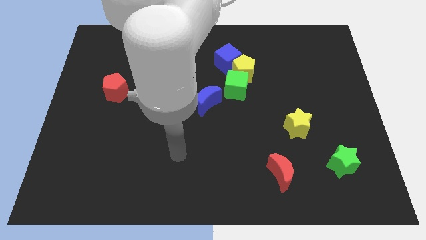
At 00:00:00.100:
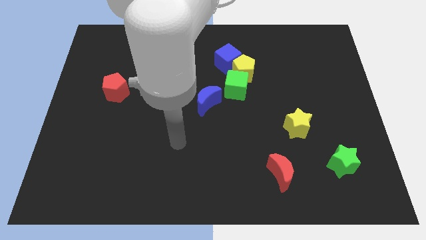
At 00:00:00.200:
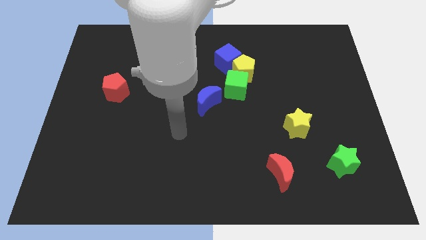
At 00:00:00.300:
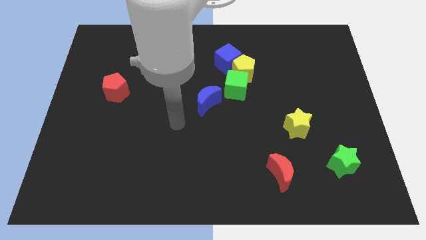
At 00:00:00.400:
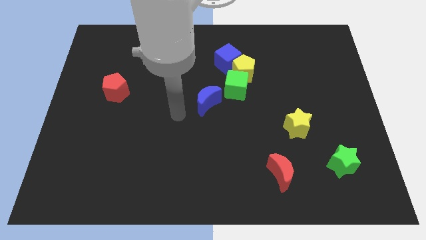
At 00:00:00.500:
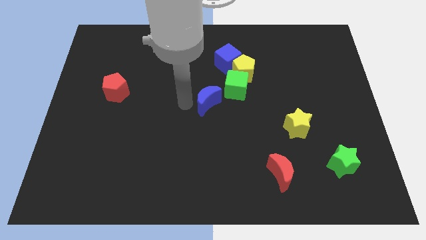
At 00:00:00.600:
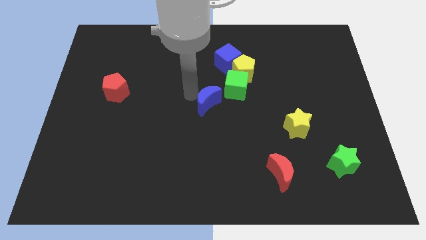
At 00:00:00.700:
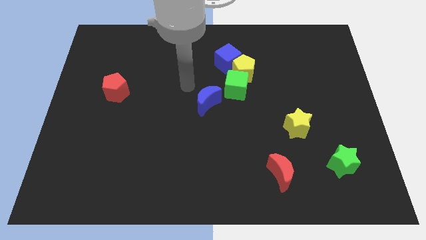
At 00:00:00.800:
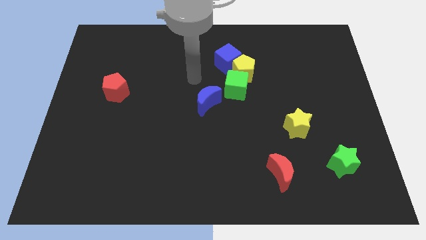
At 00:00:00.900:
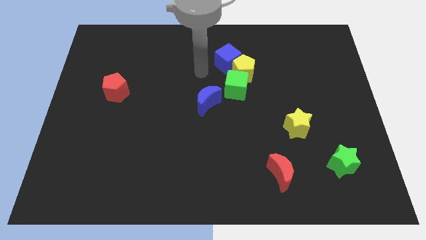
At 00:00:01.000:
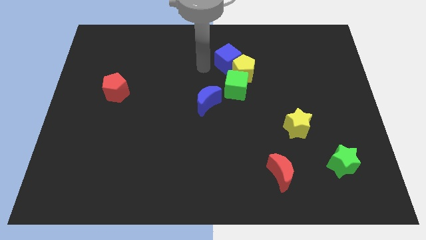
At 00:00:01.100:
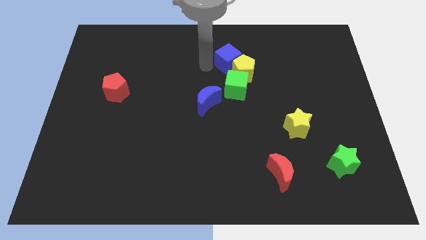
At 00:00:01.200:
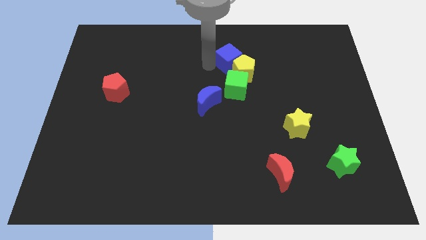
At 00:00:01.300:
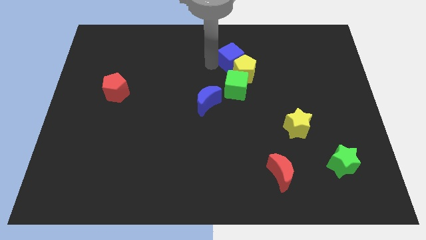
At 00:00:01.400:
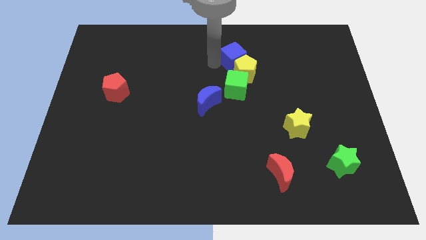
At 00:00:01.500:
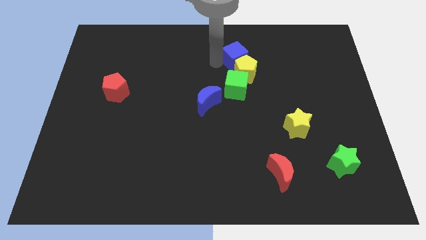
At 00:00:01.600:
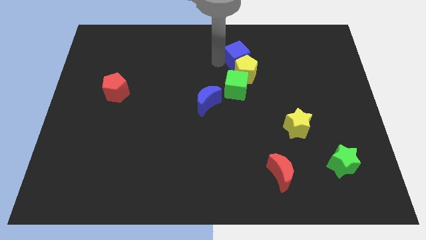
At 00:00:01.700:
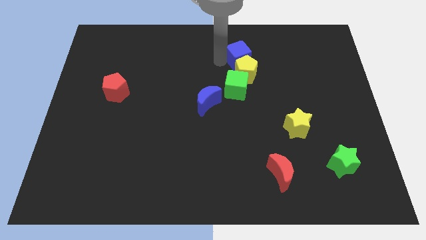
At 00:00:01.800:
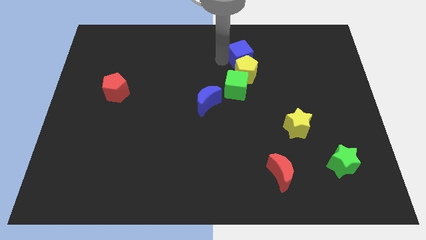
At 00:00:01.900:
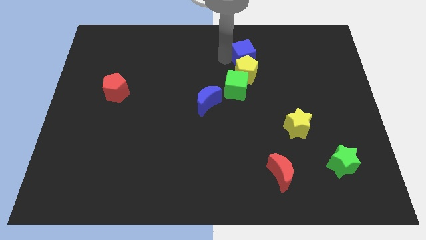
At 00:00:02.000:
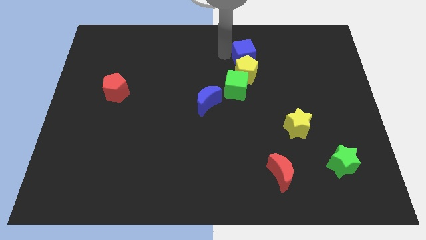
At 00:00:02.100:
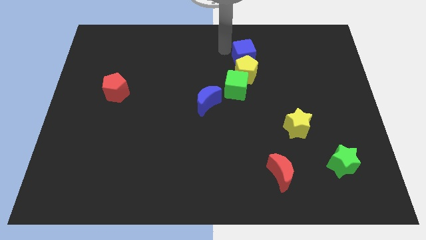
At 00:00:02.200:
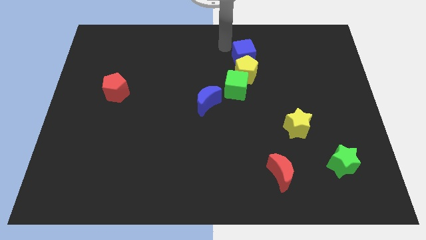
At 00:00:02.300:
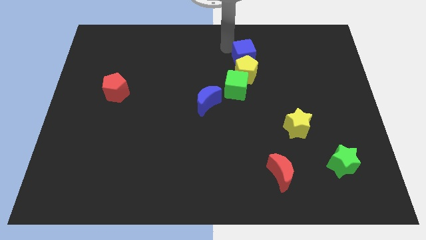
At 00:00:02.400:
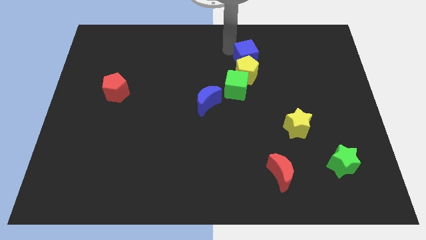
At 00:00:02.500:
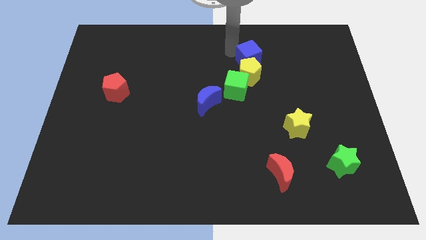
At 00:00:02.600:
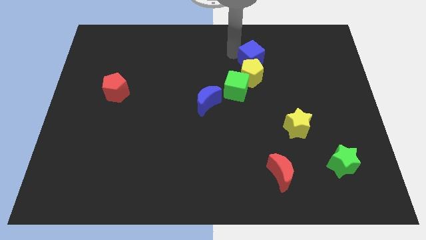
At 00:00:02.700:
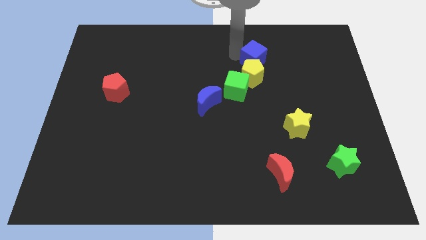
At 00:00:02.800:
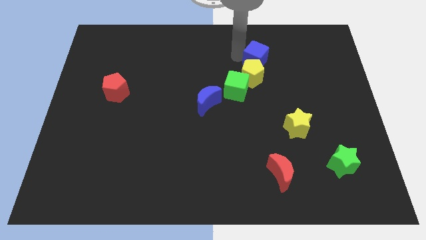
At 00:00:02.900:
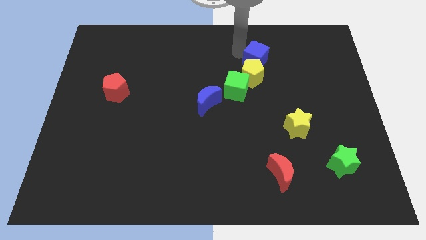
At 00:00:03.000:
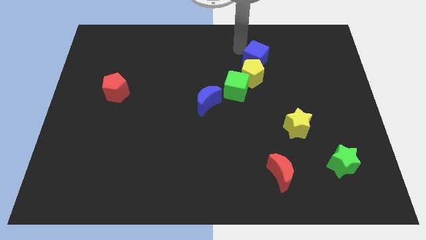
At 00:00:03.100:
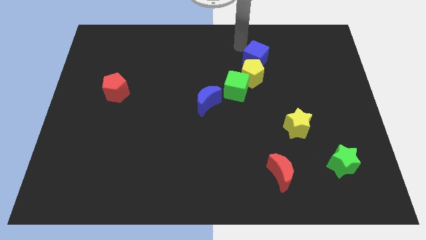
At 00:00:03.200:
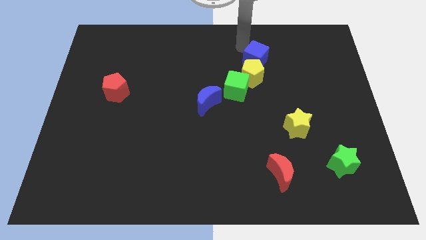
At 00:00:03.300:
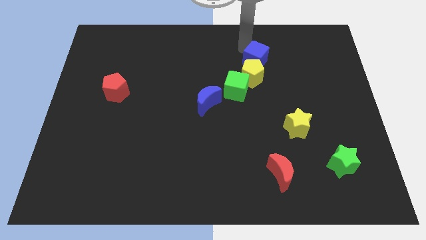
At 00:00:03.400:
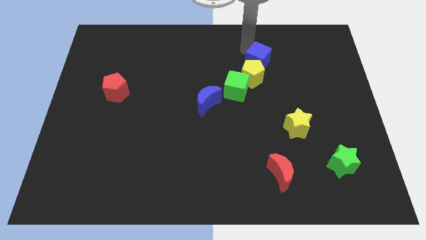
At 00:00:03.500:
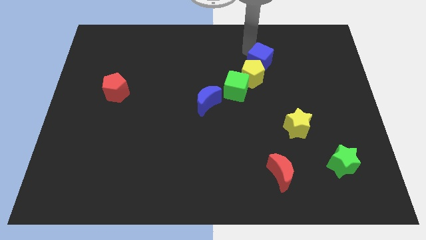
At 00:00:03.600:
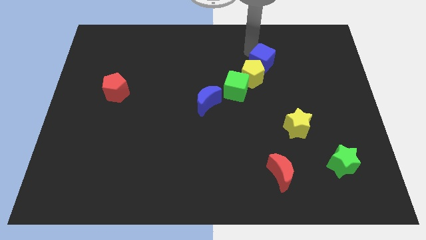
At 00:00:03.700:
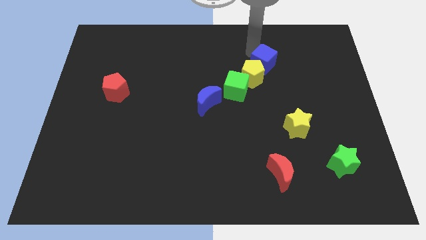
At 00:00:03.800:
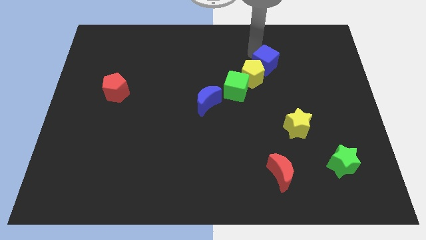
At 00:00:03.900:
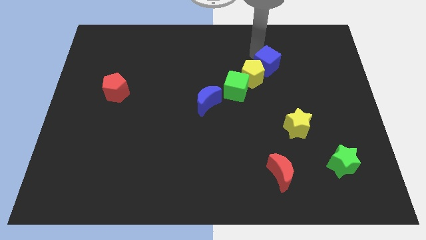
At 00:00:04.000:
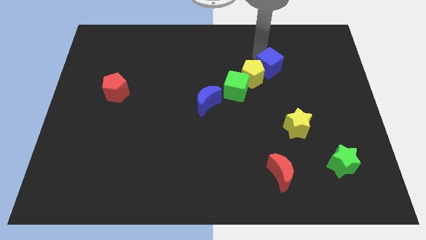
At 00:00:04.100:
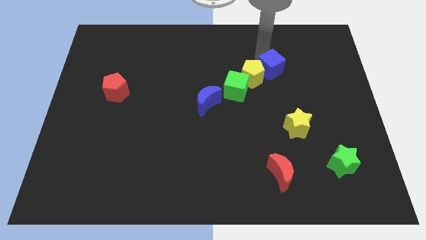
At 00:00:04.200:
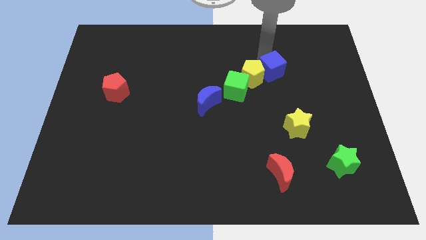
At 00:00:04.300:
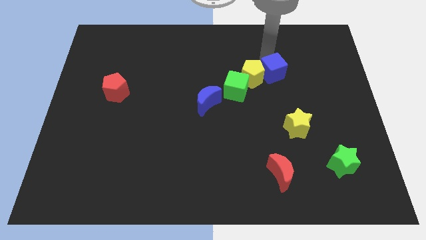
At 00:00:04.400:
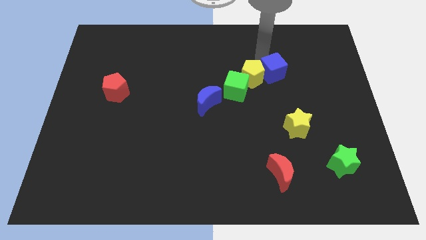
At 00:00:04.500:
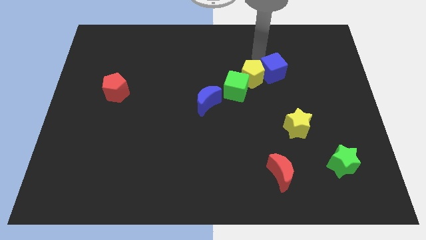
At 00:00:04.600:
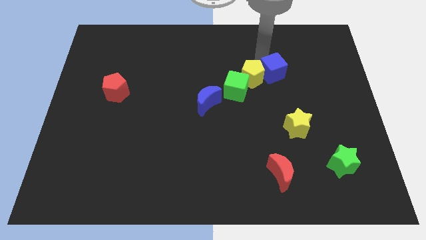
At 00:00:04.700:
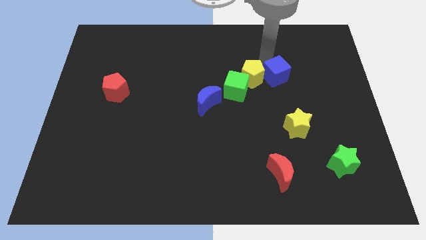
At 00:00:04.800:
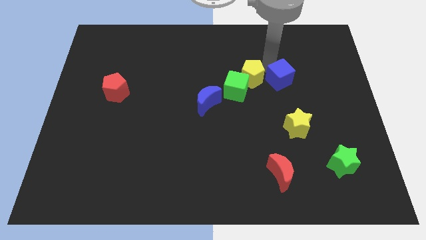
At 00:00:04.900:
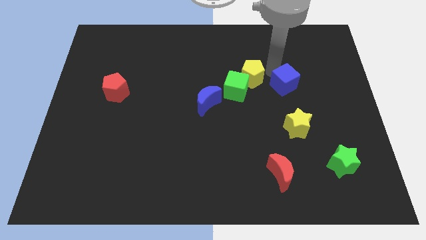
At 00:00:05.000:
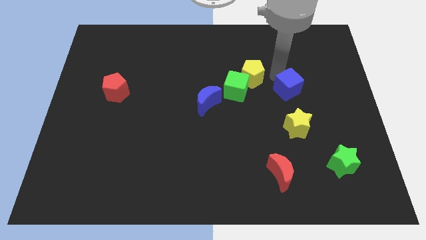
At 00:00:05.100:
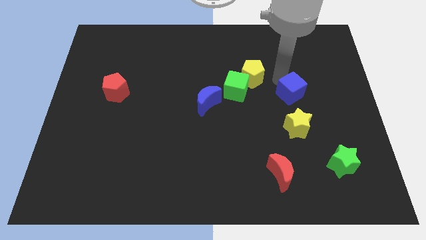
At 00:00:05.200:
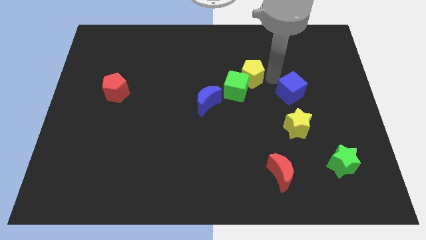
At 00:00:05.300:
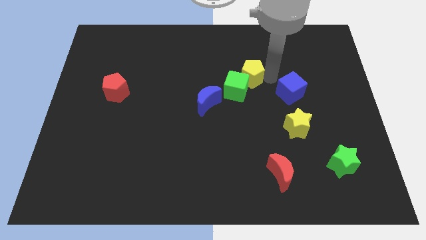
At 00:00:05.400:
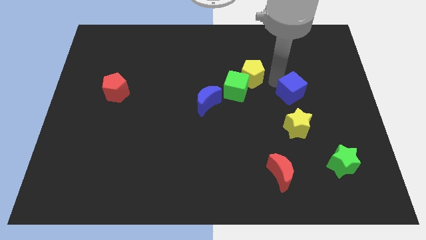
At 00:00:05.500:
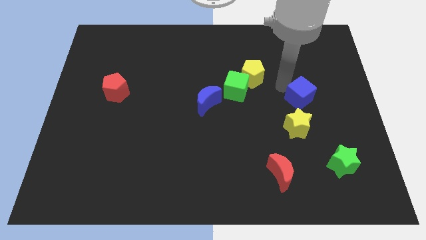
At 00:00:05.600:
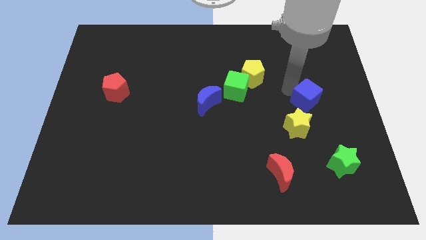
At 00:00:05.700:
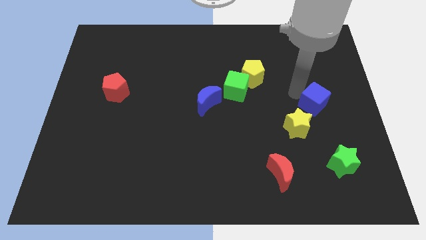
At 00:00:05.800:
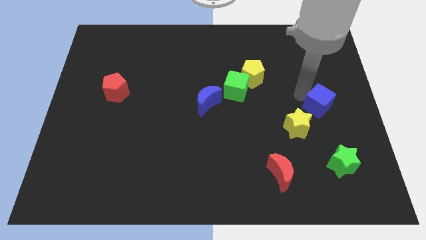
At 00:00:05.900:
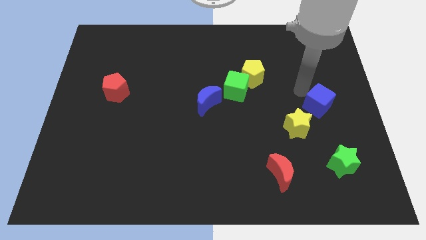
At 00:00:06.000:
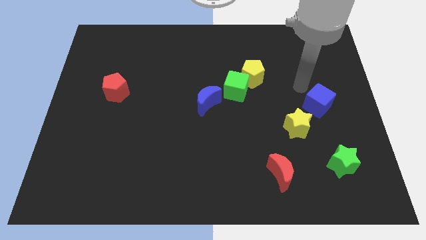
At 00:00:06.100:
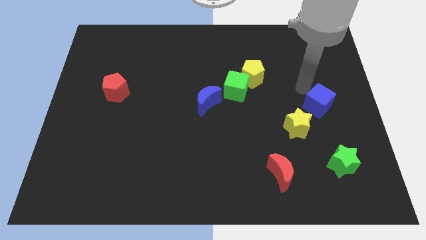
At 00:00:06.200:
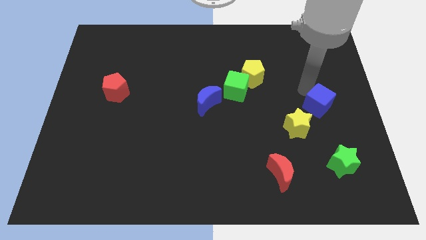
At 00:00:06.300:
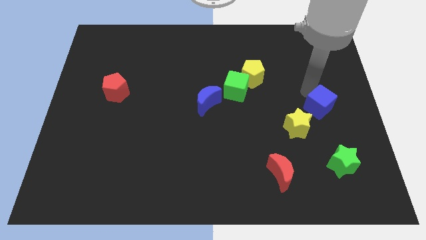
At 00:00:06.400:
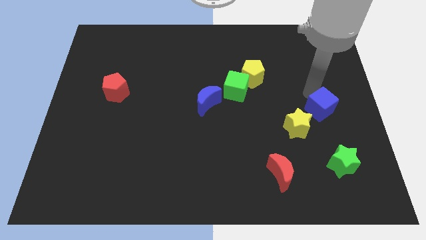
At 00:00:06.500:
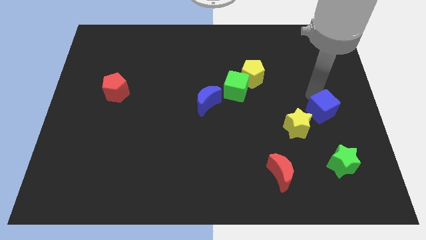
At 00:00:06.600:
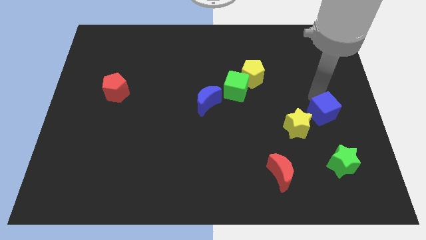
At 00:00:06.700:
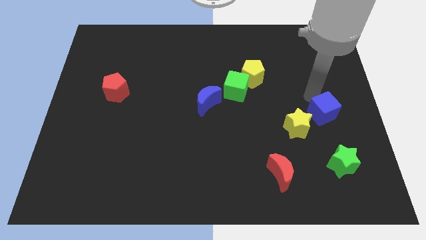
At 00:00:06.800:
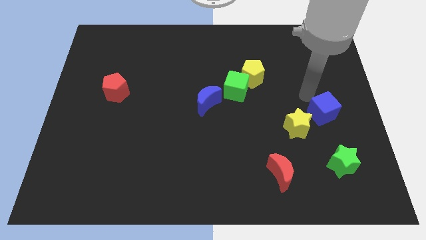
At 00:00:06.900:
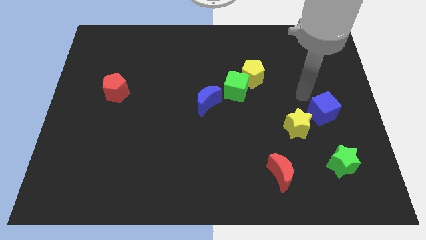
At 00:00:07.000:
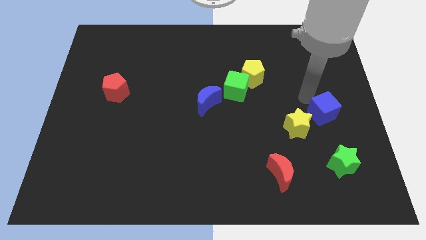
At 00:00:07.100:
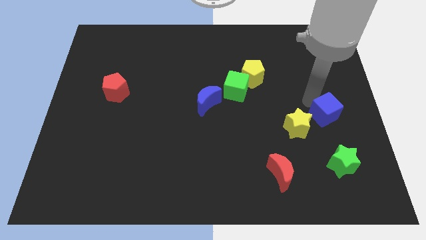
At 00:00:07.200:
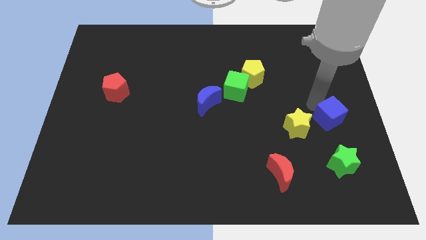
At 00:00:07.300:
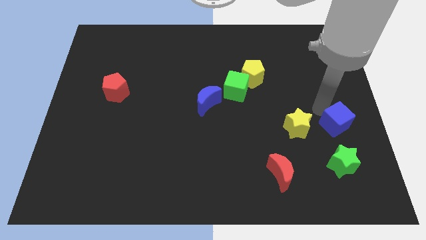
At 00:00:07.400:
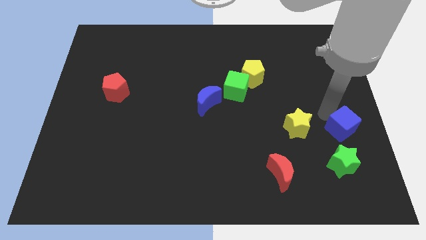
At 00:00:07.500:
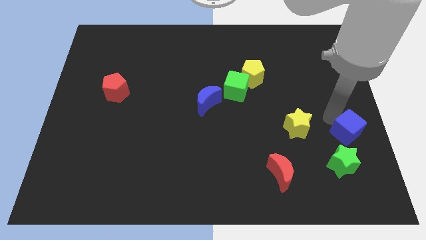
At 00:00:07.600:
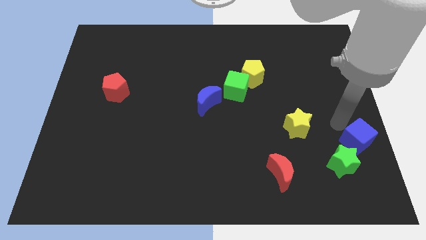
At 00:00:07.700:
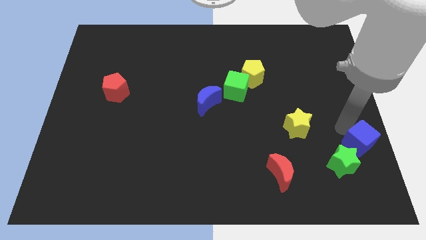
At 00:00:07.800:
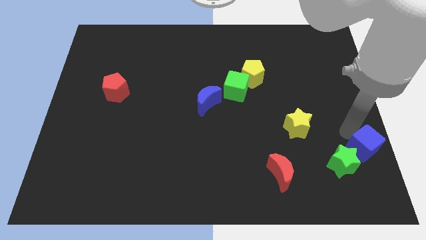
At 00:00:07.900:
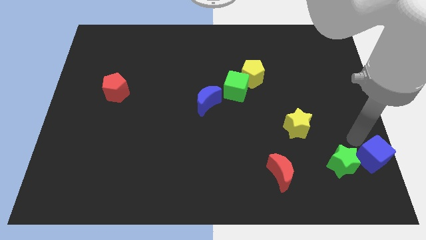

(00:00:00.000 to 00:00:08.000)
move the blue cube to the lower right corner
